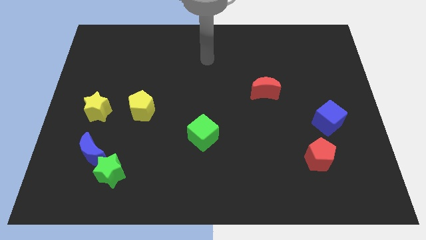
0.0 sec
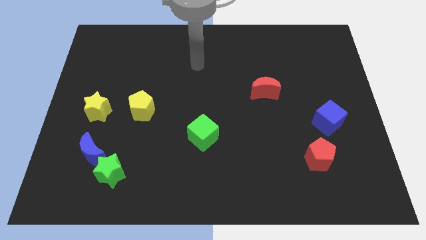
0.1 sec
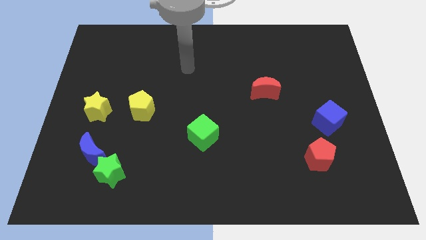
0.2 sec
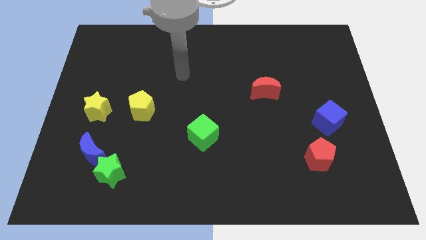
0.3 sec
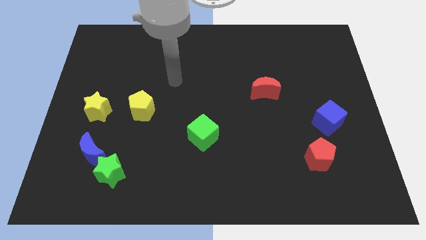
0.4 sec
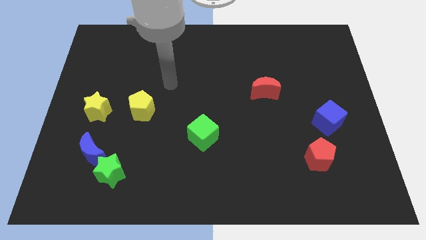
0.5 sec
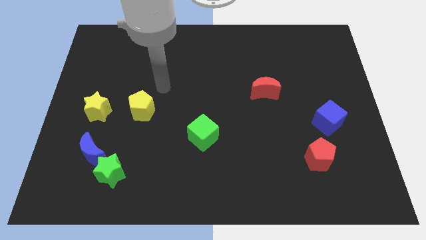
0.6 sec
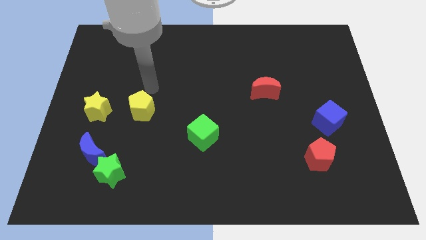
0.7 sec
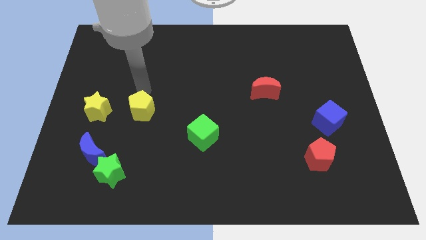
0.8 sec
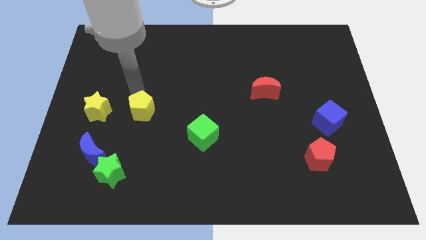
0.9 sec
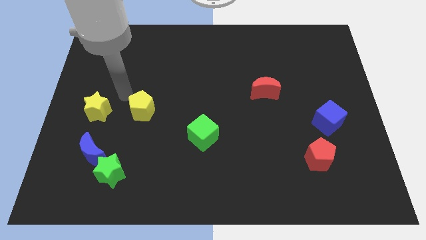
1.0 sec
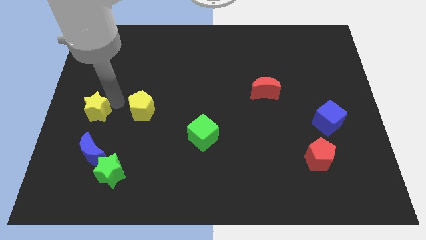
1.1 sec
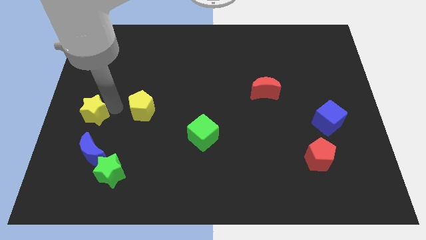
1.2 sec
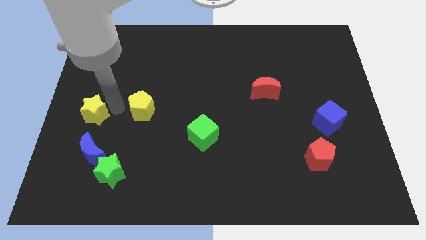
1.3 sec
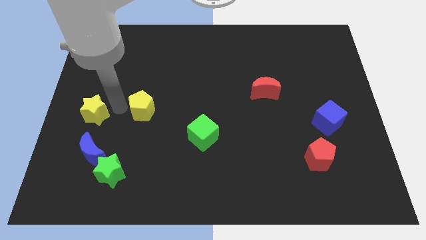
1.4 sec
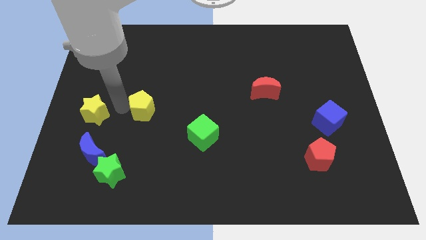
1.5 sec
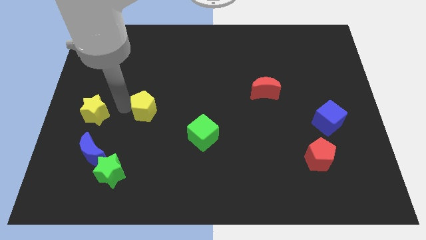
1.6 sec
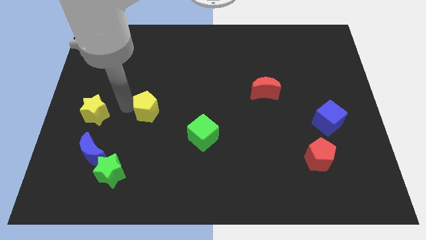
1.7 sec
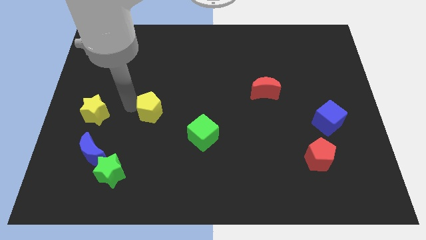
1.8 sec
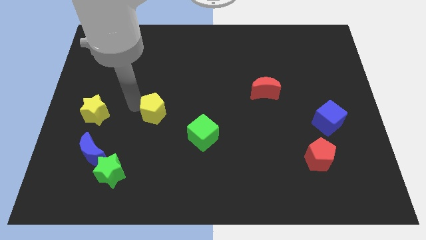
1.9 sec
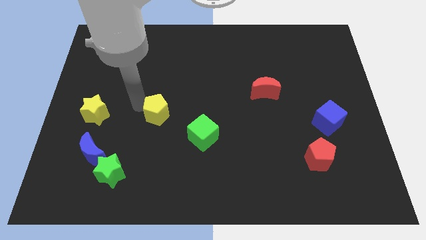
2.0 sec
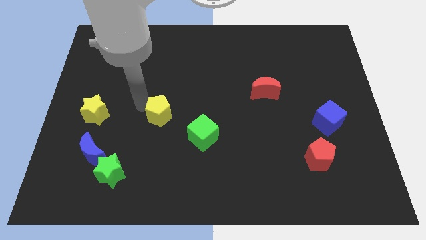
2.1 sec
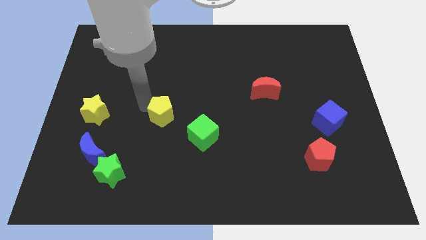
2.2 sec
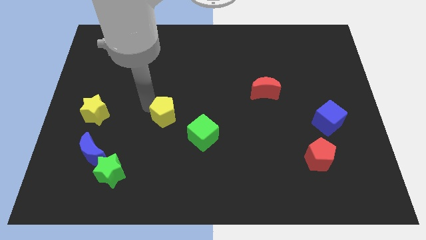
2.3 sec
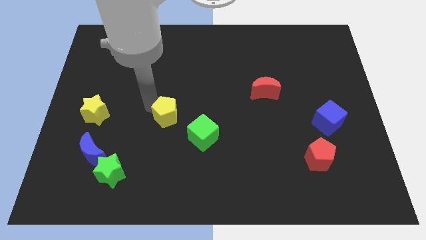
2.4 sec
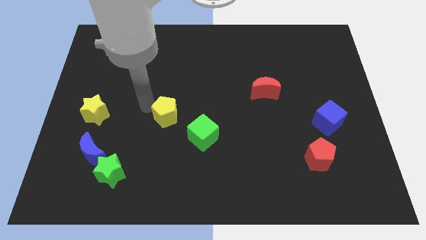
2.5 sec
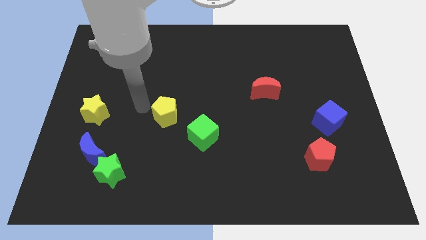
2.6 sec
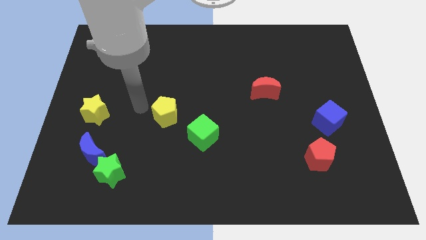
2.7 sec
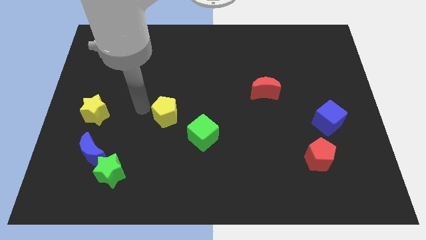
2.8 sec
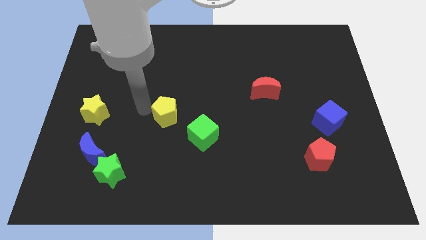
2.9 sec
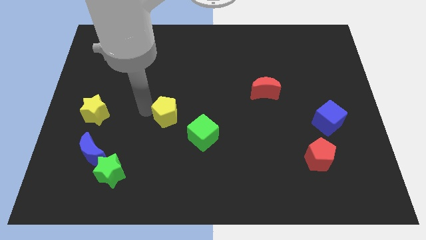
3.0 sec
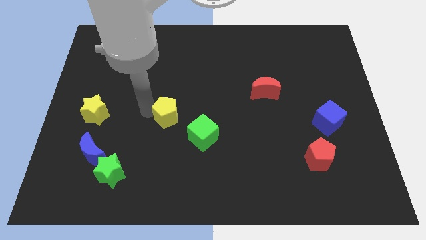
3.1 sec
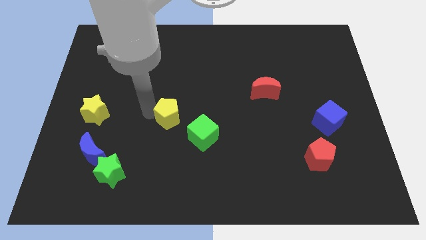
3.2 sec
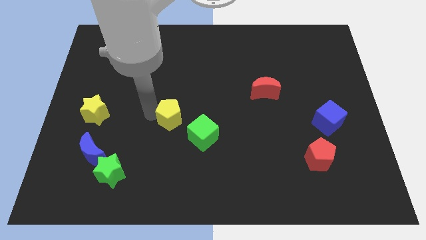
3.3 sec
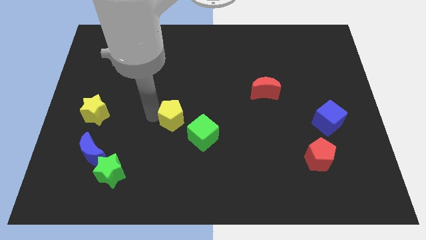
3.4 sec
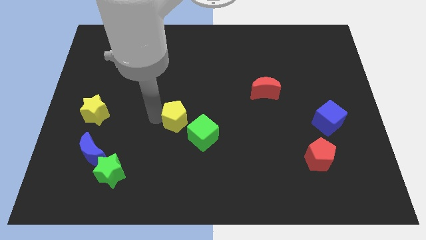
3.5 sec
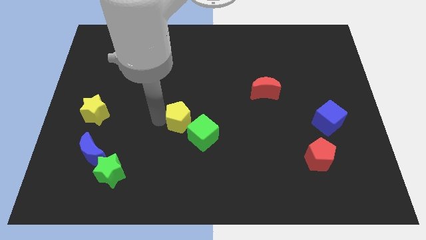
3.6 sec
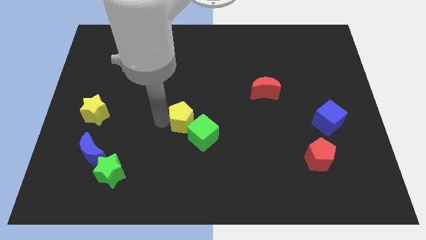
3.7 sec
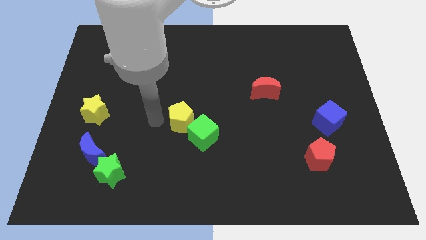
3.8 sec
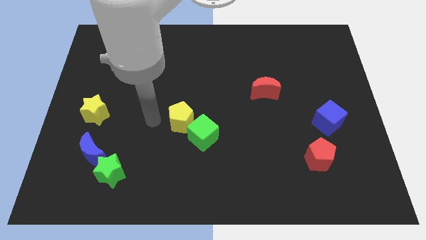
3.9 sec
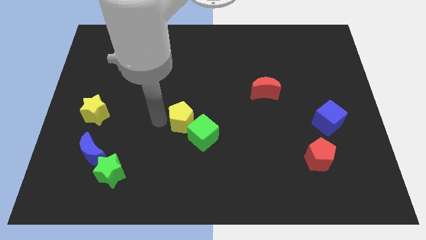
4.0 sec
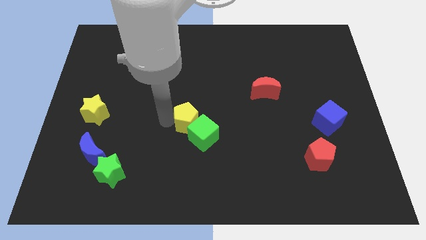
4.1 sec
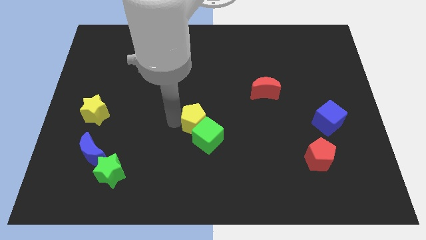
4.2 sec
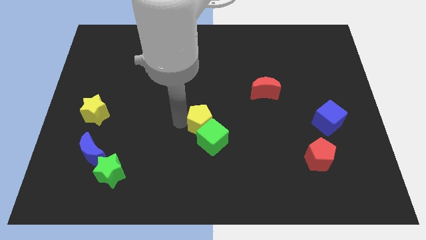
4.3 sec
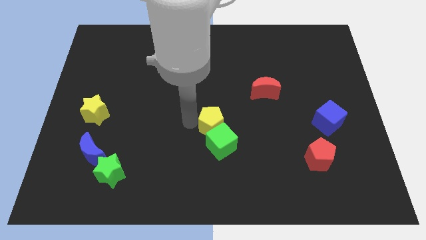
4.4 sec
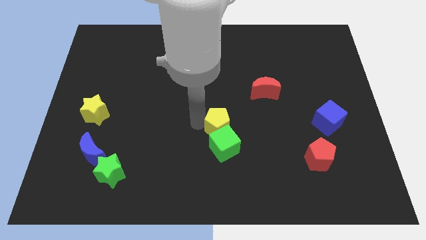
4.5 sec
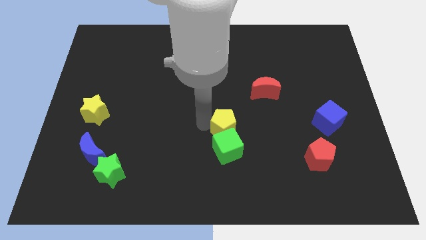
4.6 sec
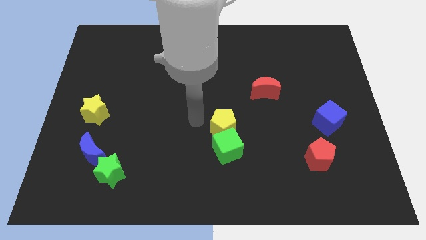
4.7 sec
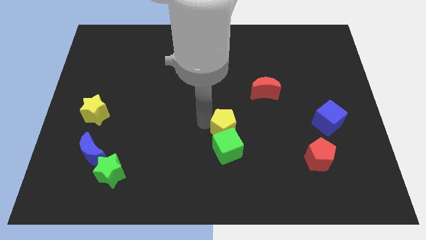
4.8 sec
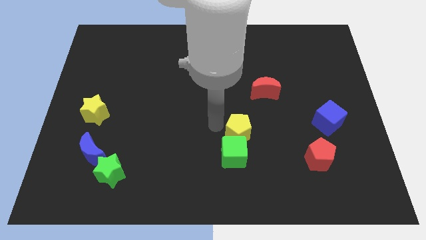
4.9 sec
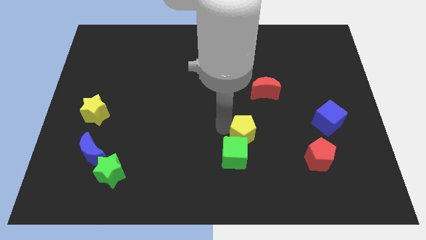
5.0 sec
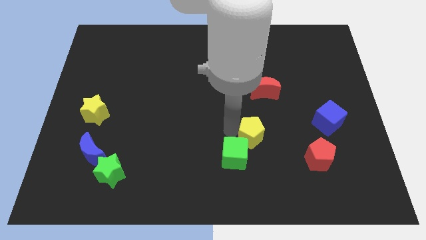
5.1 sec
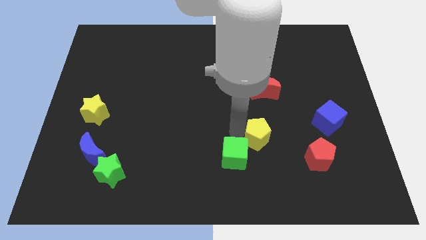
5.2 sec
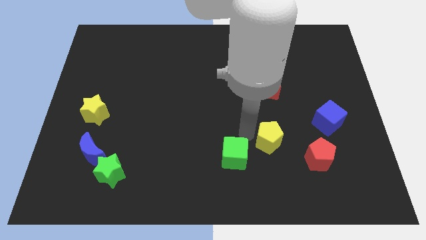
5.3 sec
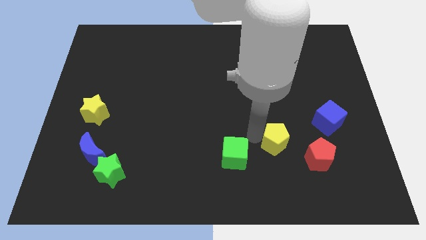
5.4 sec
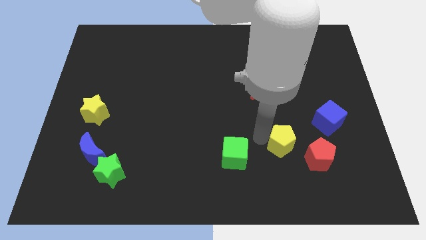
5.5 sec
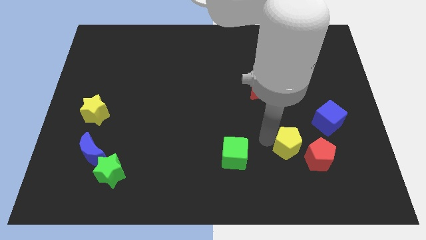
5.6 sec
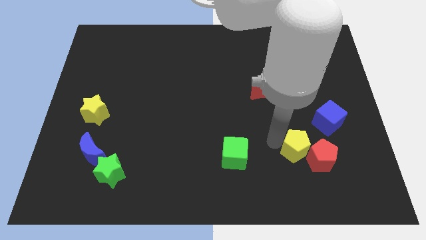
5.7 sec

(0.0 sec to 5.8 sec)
slide the yellow pentagon towards the red pentagon

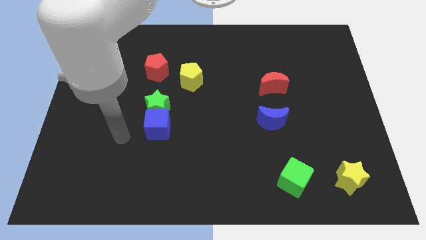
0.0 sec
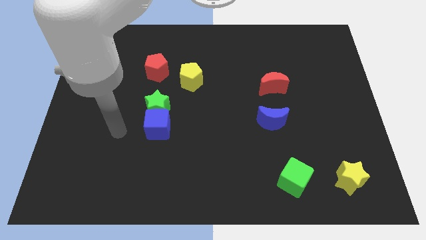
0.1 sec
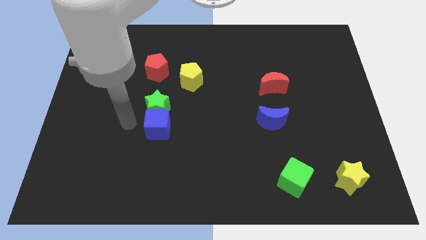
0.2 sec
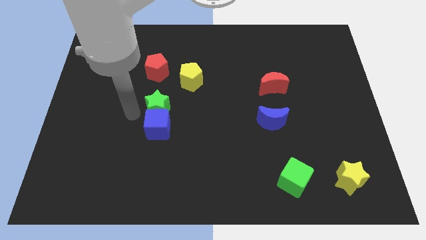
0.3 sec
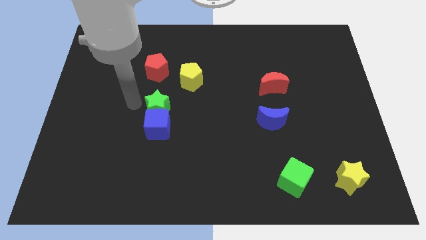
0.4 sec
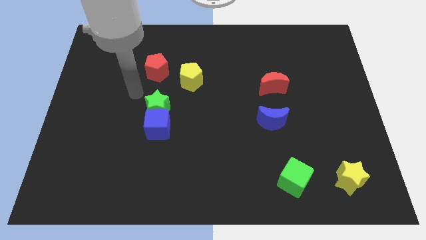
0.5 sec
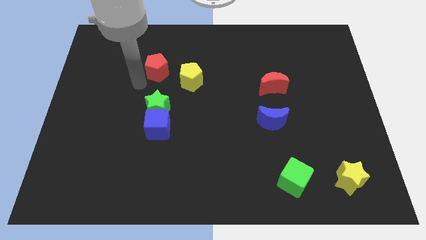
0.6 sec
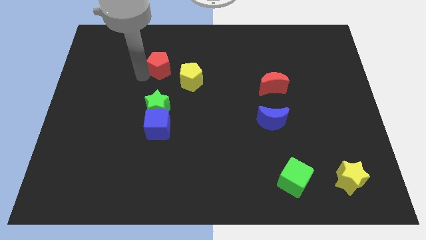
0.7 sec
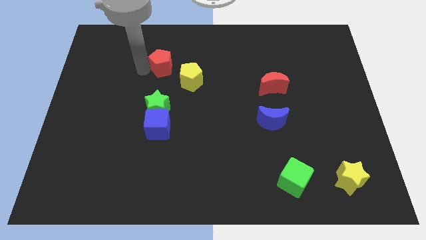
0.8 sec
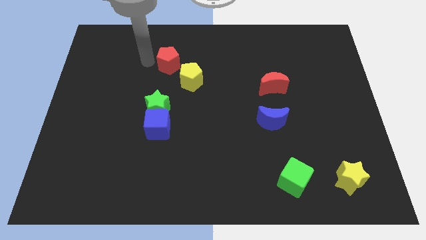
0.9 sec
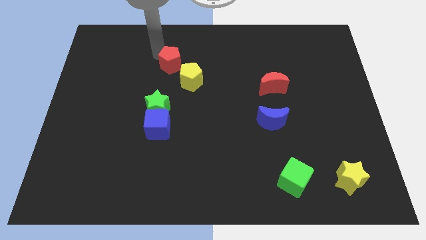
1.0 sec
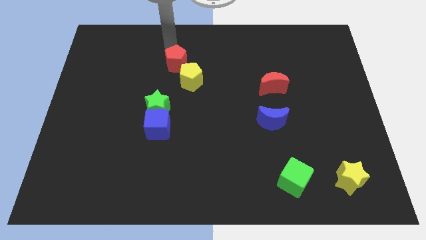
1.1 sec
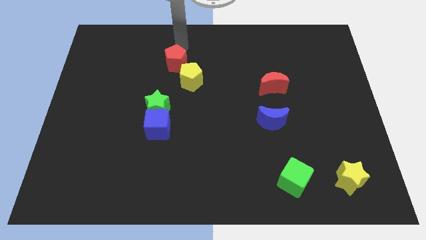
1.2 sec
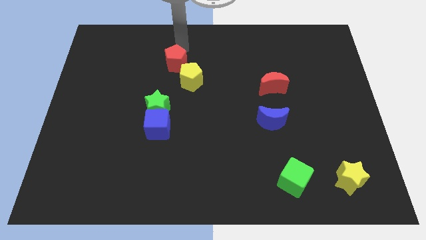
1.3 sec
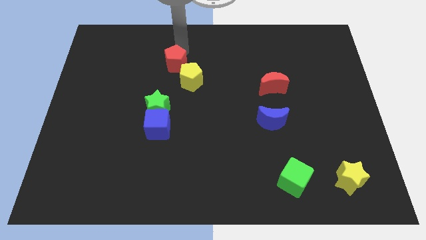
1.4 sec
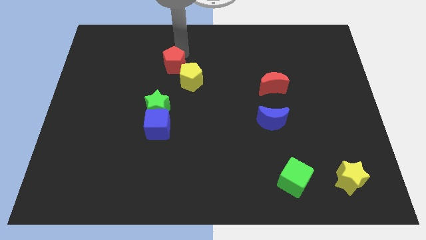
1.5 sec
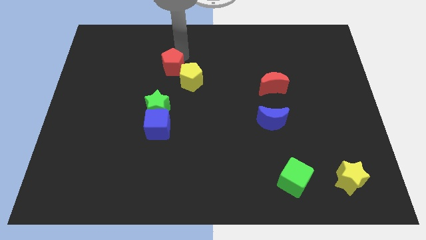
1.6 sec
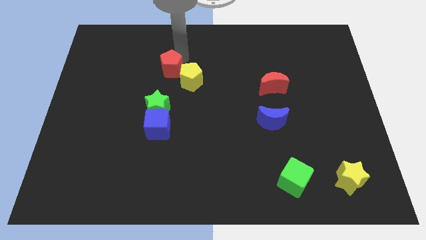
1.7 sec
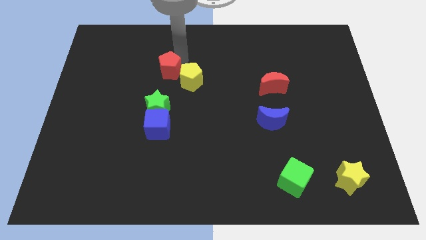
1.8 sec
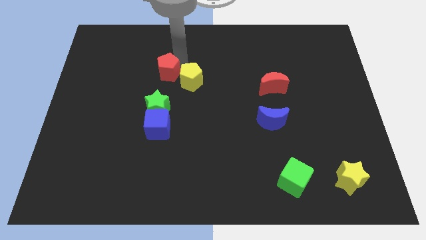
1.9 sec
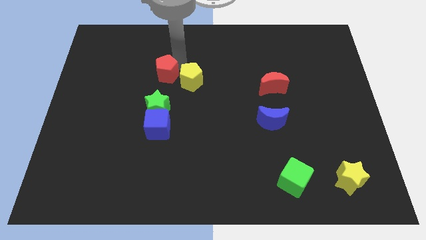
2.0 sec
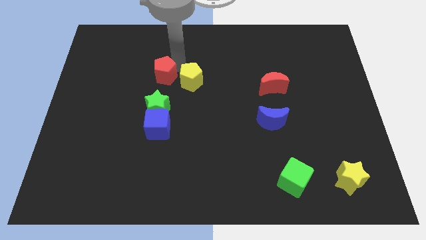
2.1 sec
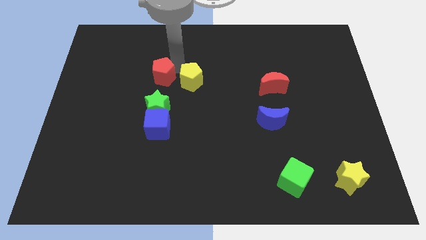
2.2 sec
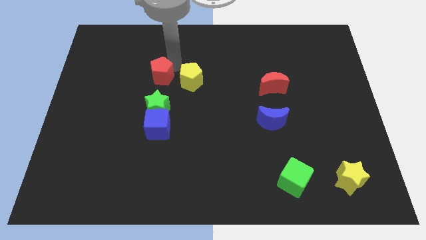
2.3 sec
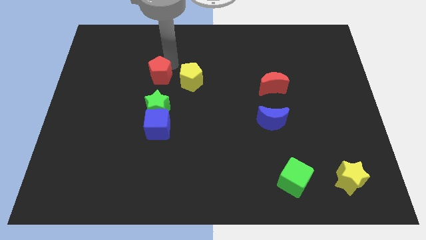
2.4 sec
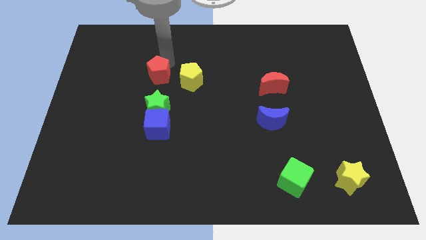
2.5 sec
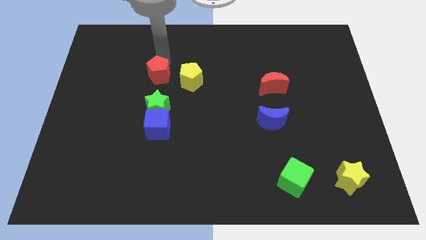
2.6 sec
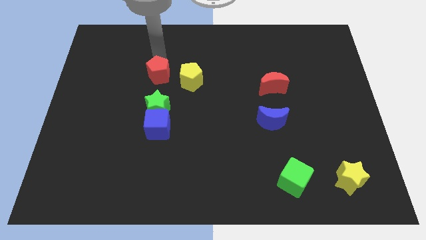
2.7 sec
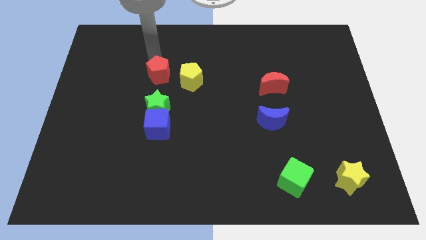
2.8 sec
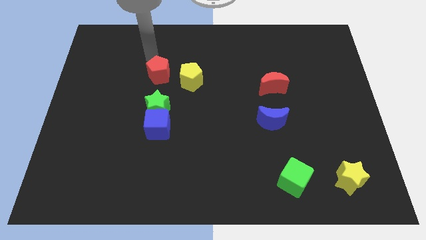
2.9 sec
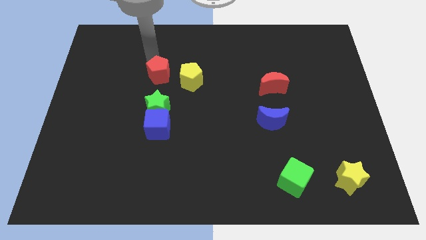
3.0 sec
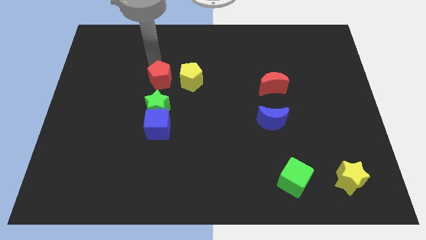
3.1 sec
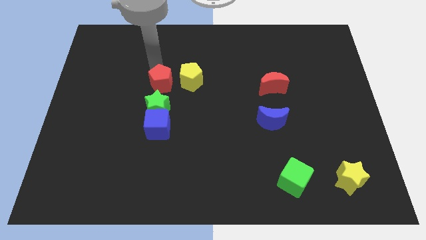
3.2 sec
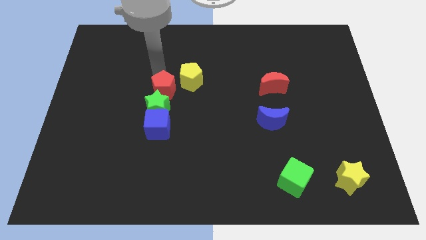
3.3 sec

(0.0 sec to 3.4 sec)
put the red pentagon to the green star
